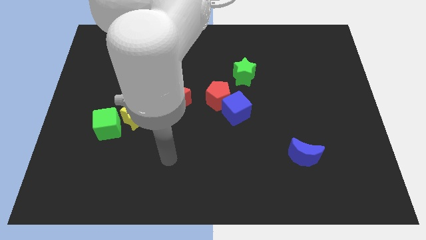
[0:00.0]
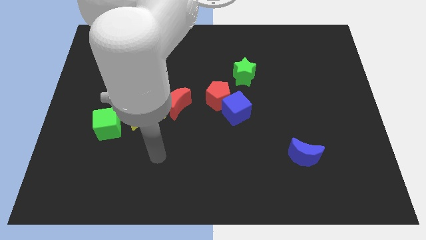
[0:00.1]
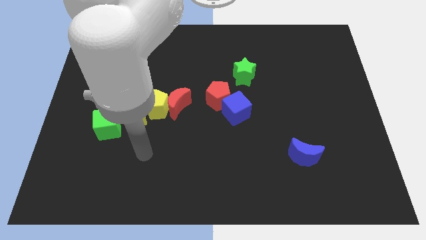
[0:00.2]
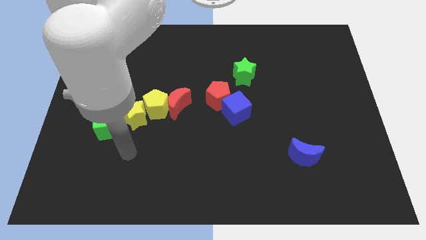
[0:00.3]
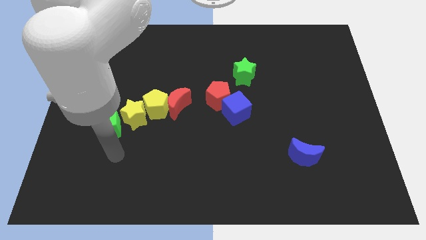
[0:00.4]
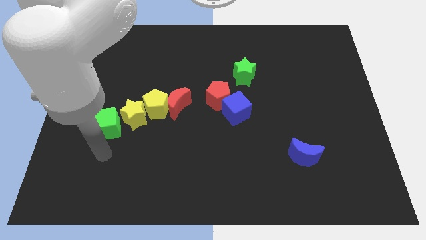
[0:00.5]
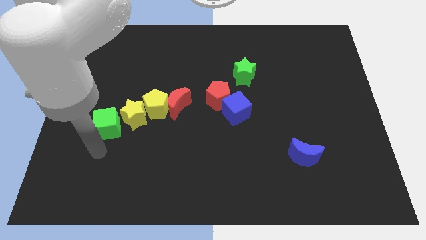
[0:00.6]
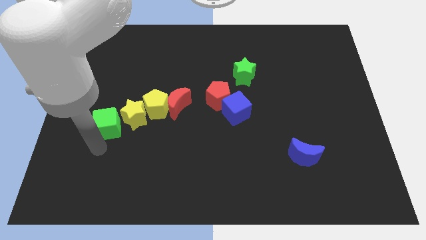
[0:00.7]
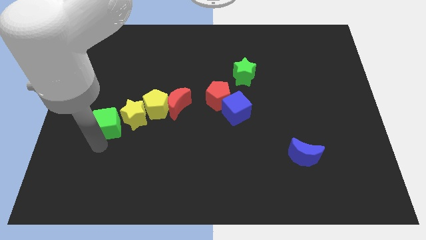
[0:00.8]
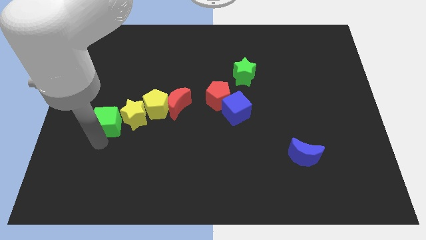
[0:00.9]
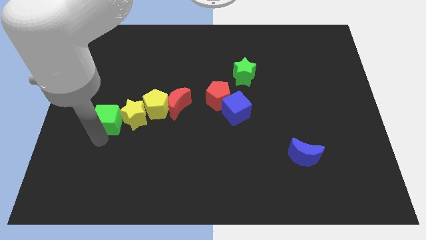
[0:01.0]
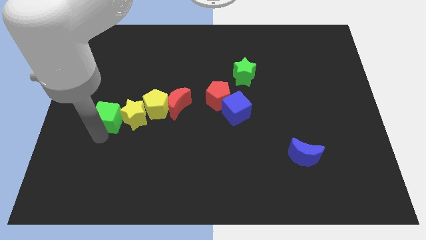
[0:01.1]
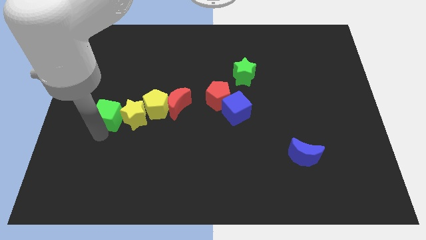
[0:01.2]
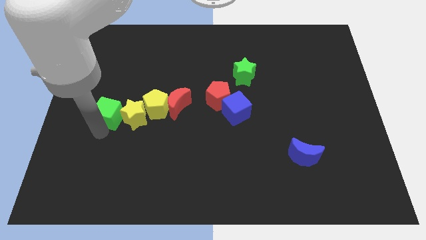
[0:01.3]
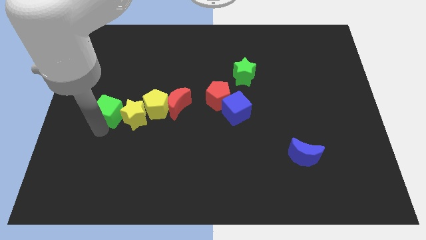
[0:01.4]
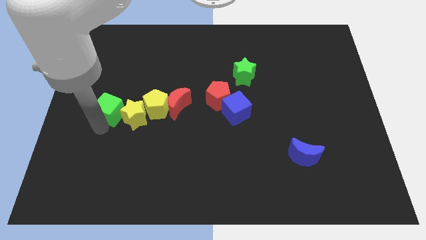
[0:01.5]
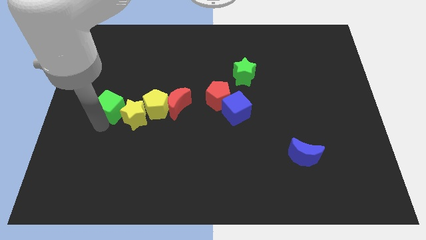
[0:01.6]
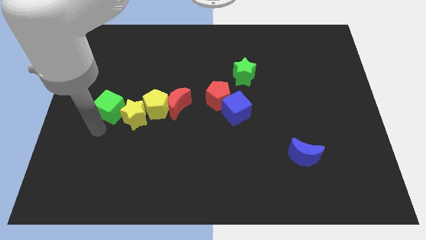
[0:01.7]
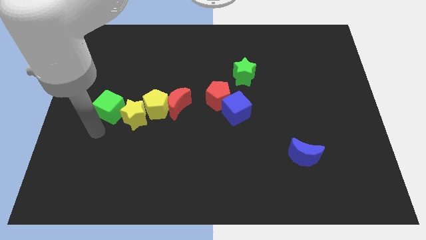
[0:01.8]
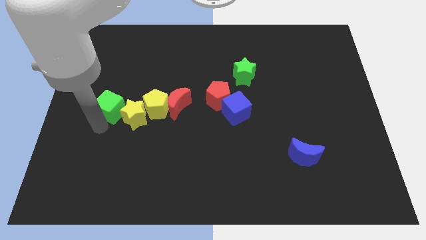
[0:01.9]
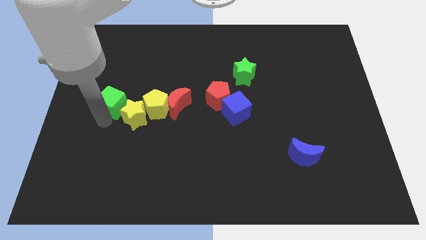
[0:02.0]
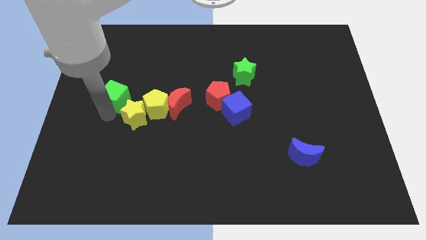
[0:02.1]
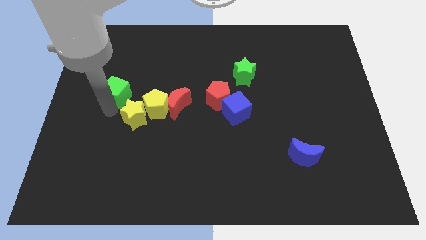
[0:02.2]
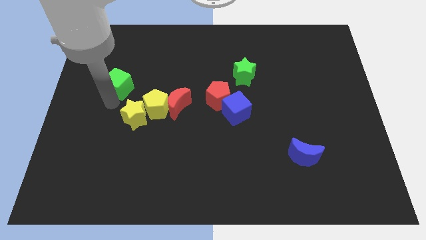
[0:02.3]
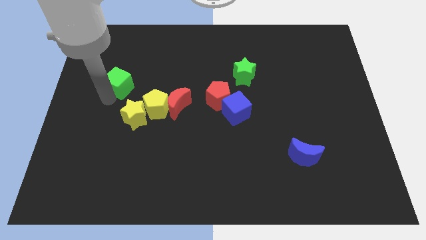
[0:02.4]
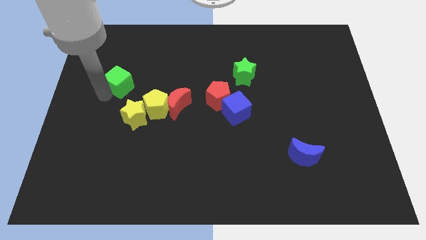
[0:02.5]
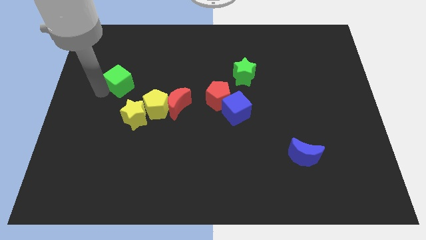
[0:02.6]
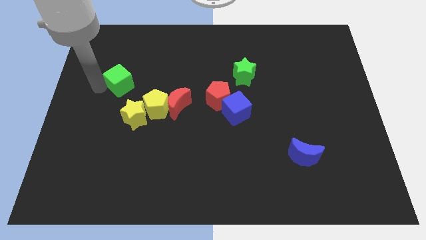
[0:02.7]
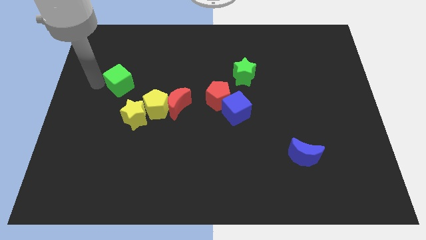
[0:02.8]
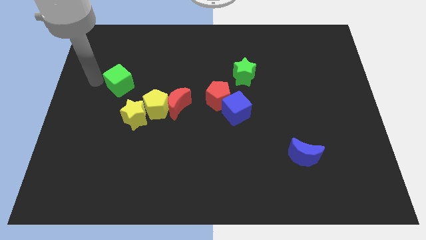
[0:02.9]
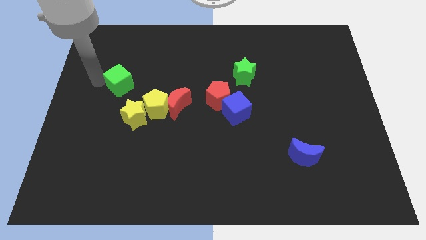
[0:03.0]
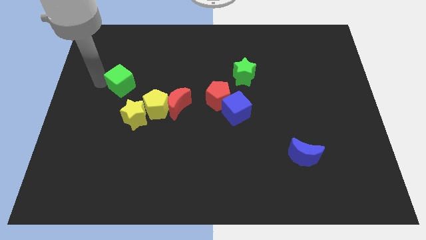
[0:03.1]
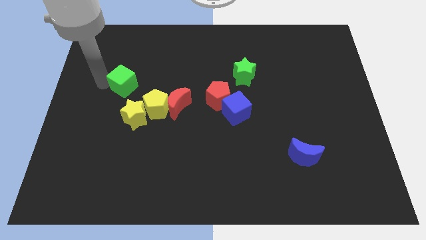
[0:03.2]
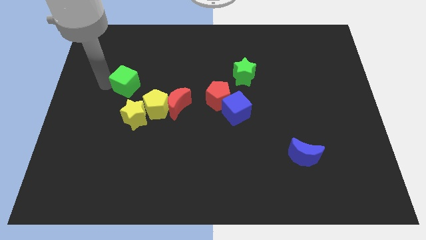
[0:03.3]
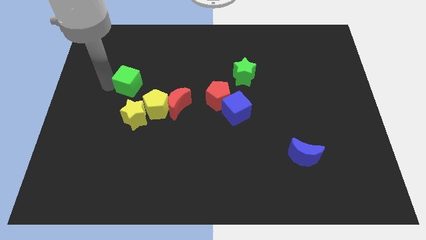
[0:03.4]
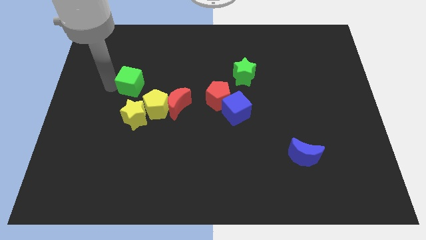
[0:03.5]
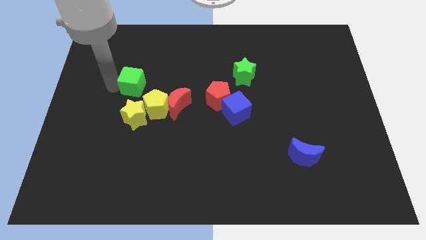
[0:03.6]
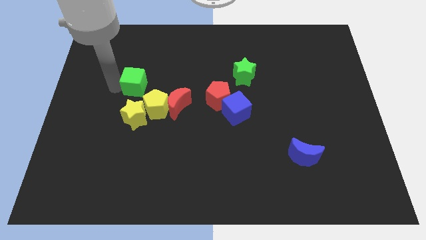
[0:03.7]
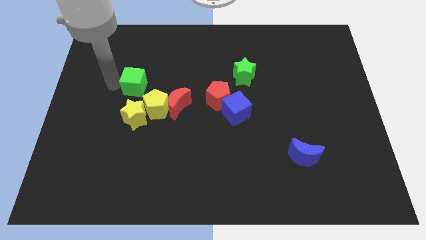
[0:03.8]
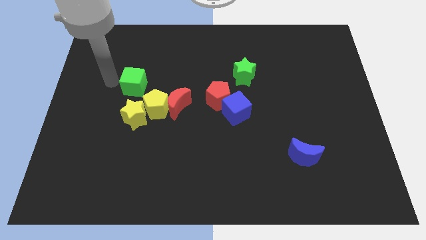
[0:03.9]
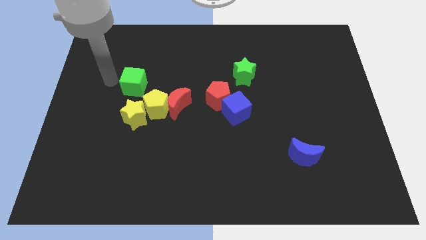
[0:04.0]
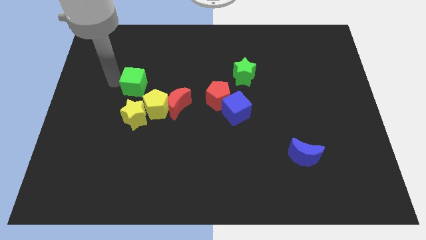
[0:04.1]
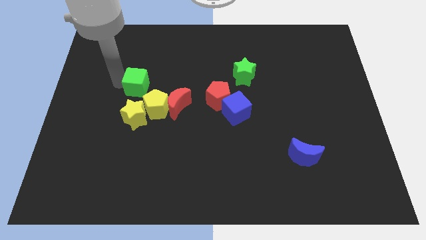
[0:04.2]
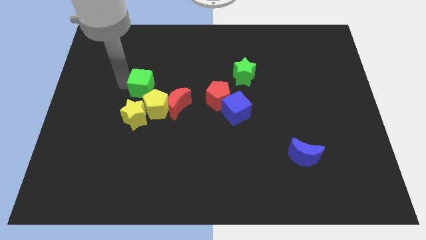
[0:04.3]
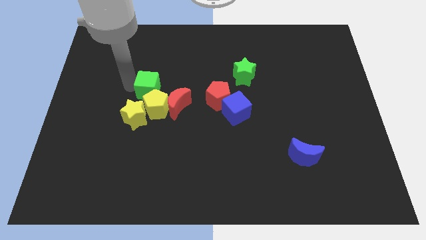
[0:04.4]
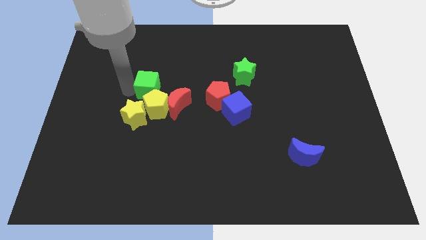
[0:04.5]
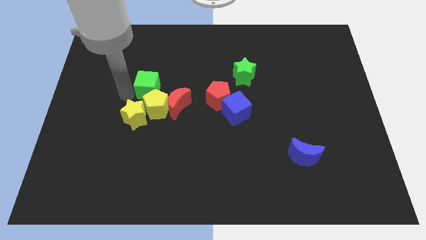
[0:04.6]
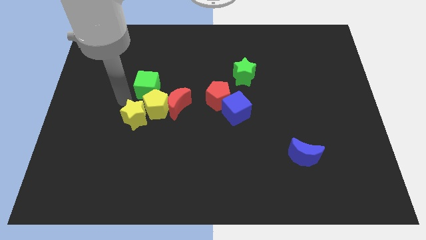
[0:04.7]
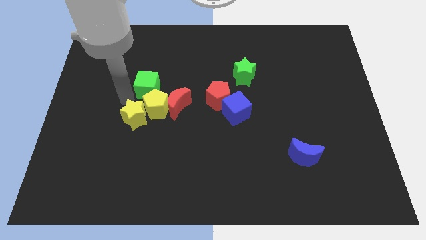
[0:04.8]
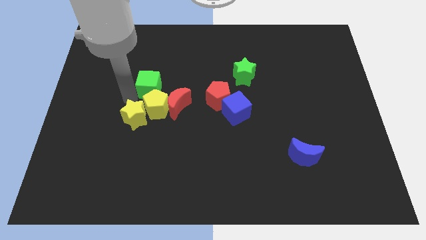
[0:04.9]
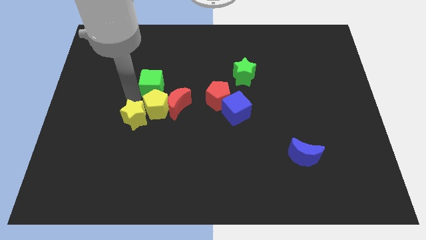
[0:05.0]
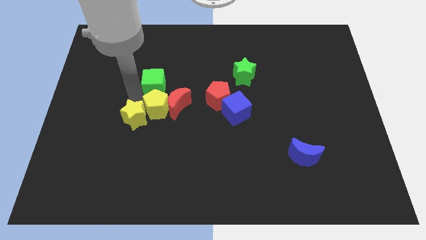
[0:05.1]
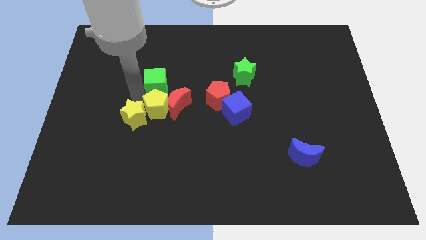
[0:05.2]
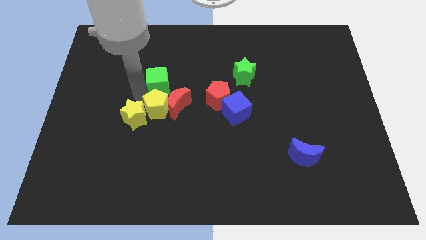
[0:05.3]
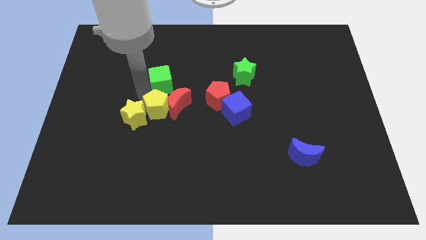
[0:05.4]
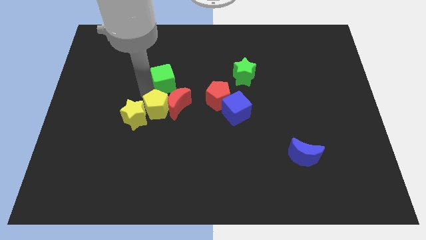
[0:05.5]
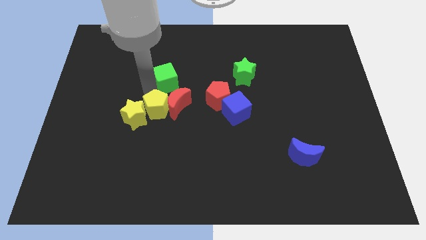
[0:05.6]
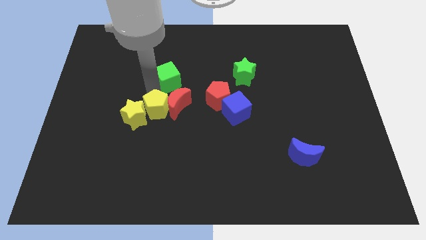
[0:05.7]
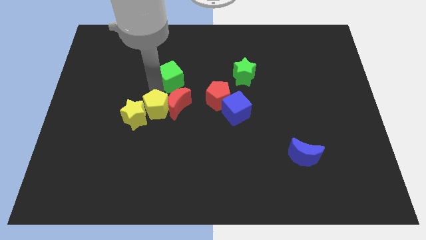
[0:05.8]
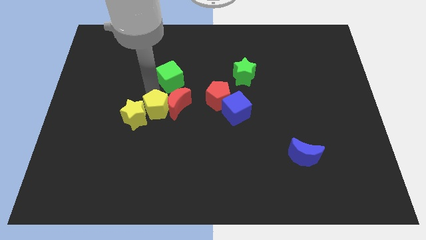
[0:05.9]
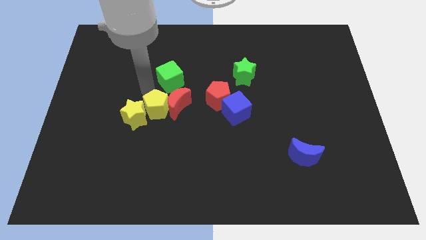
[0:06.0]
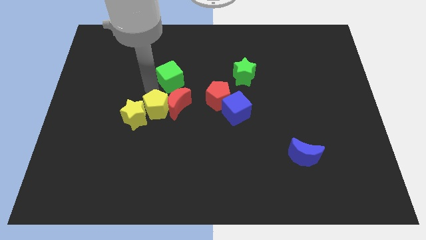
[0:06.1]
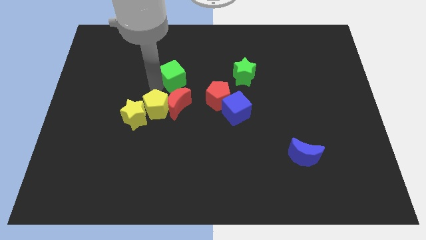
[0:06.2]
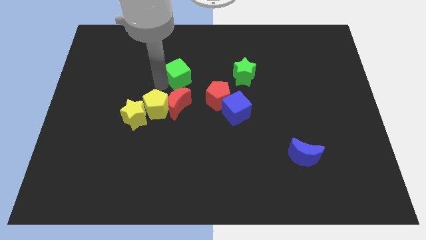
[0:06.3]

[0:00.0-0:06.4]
slide the green cube left of the green star
